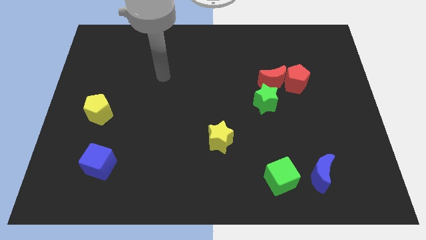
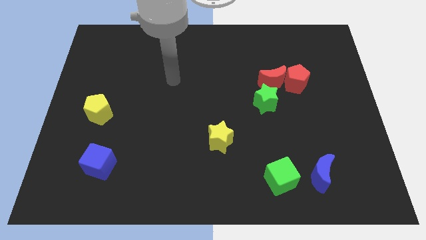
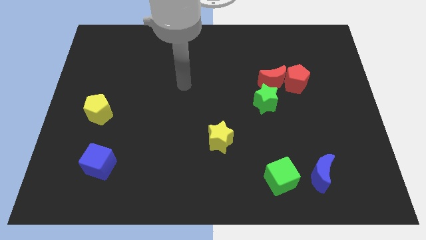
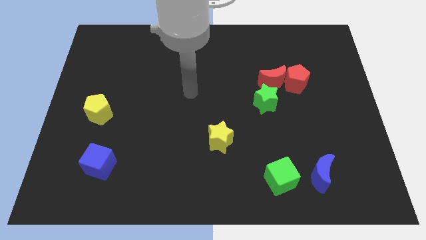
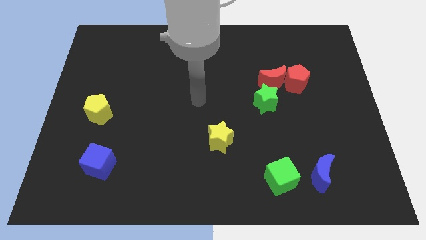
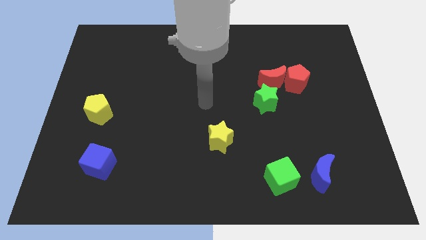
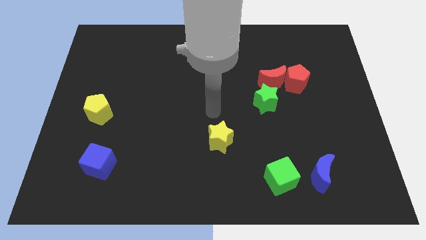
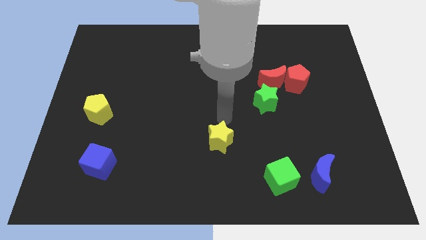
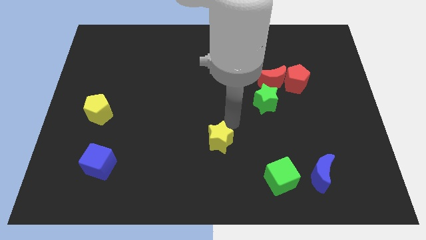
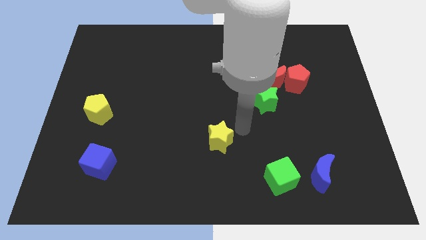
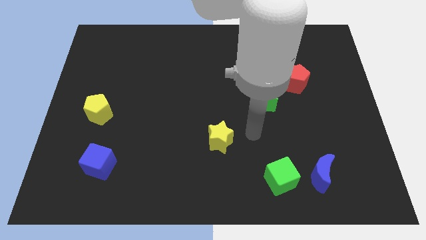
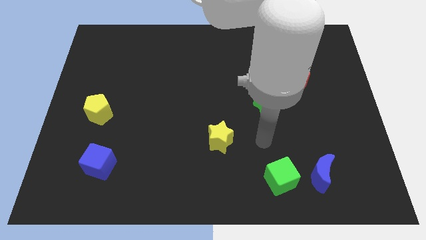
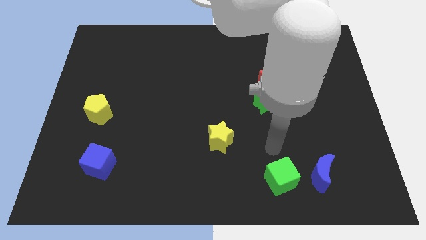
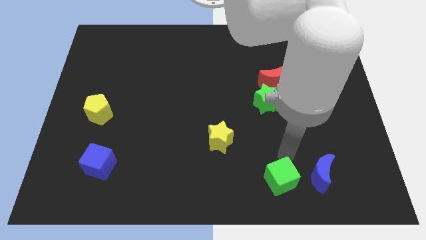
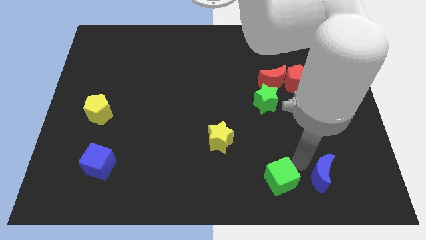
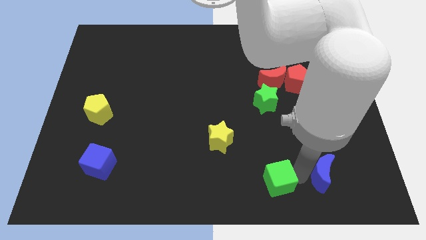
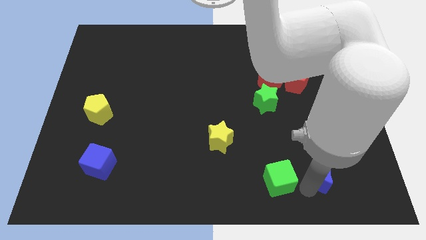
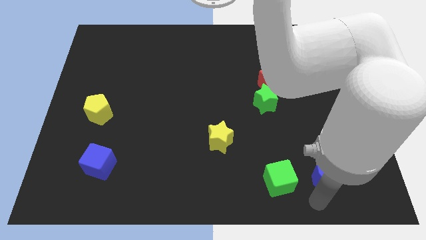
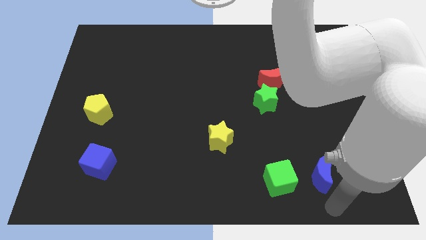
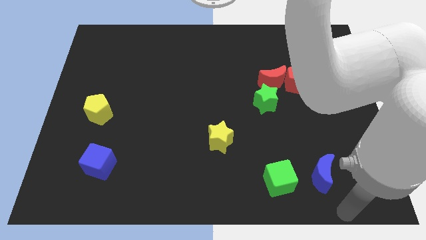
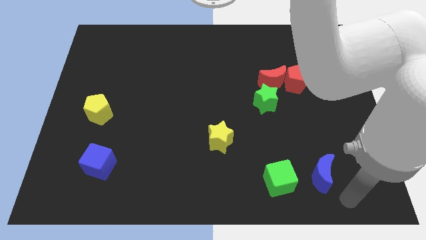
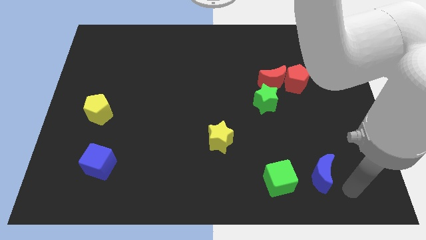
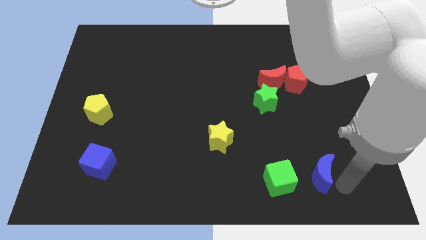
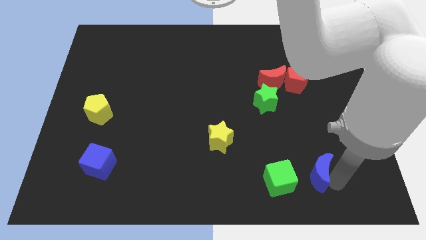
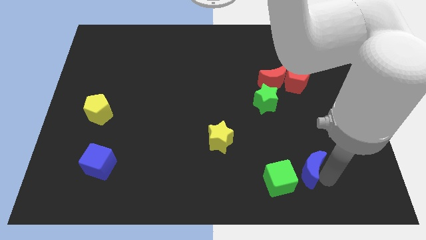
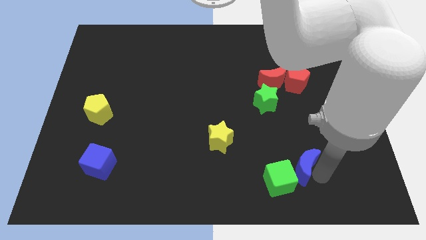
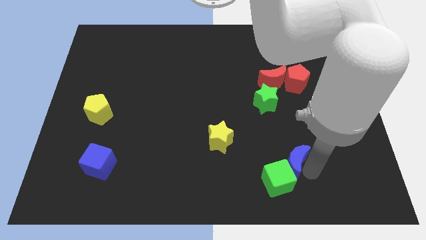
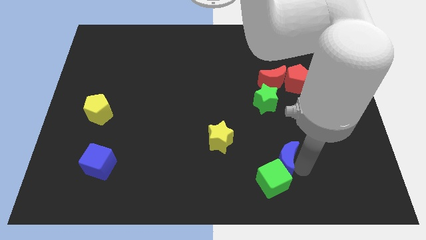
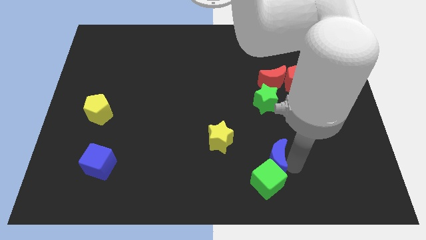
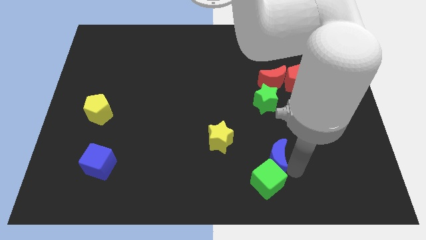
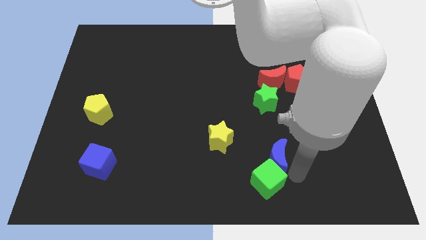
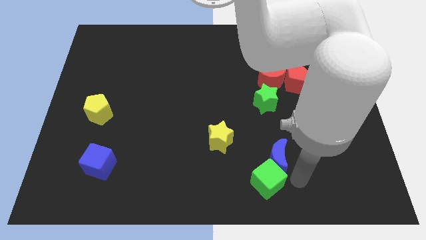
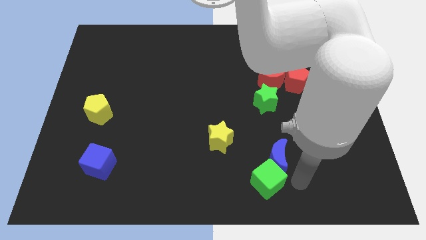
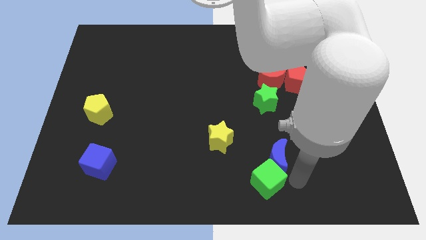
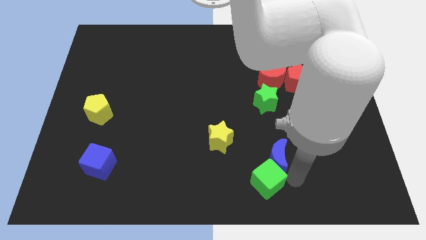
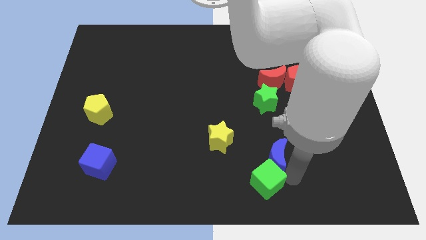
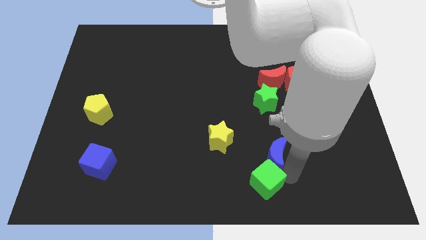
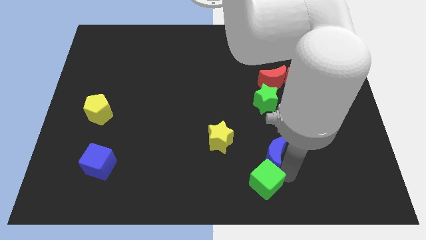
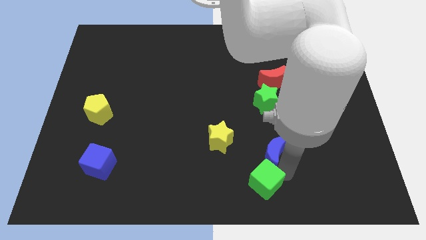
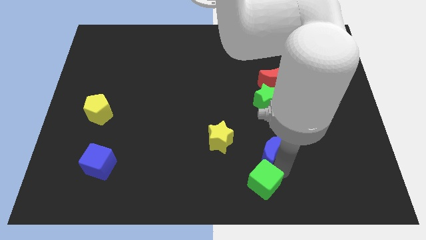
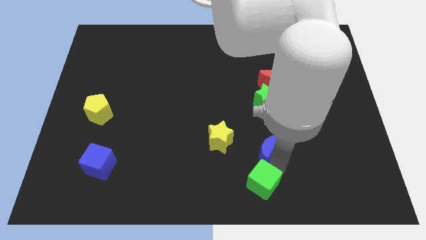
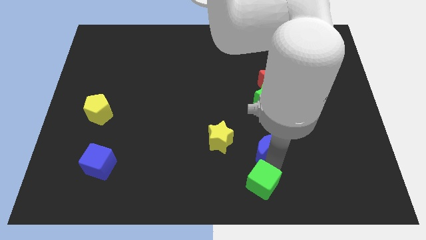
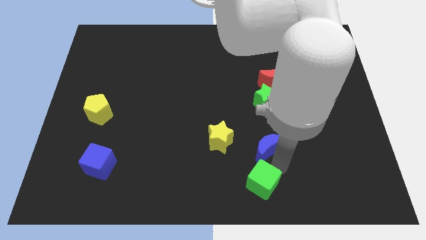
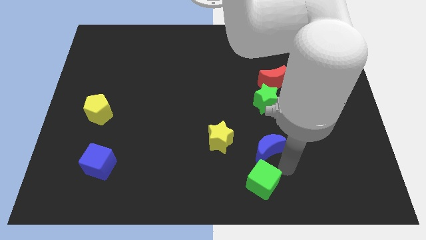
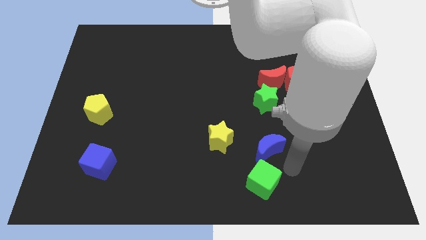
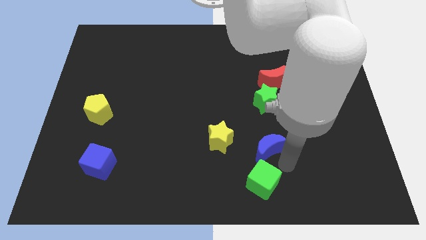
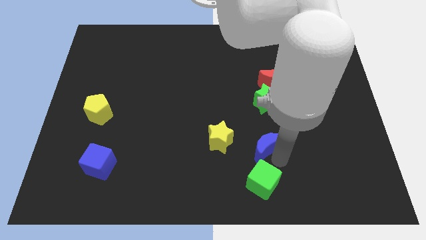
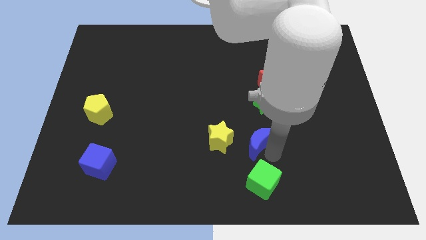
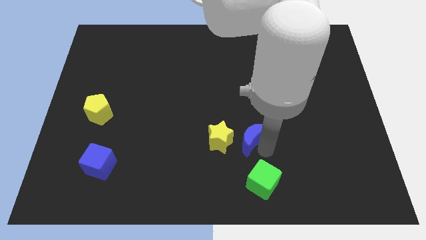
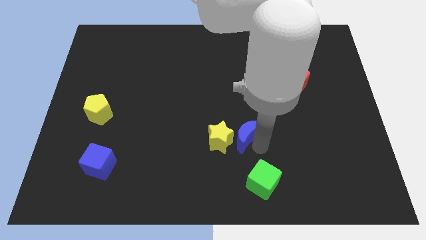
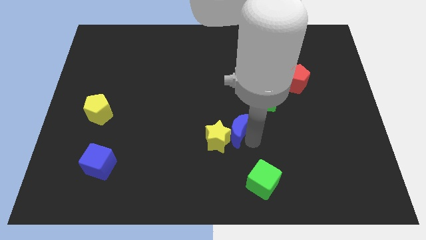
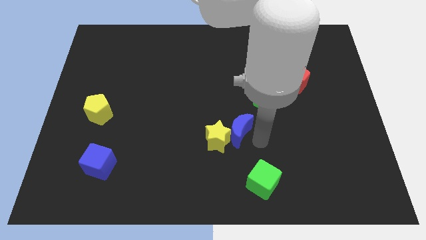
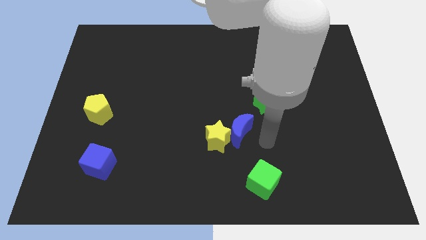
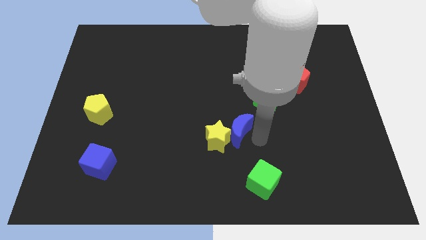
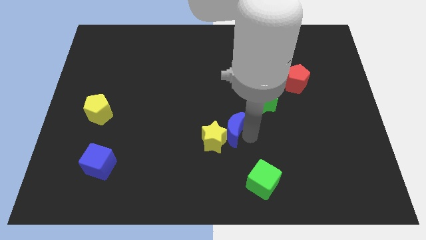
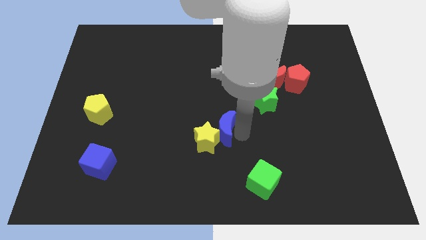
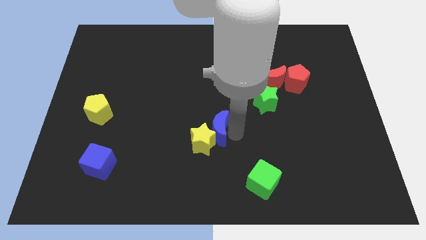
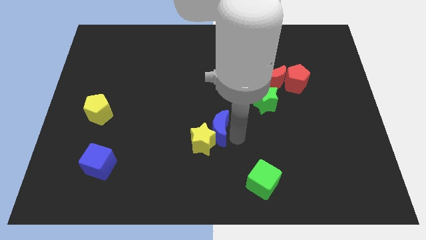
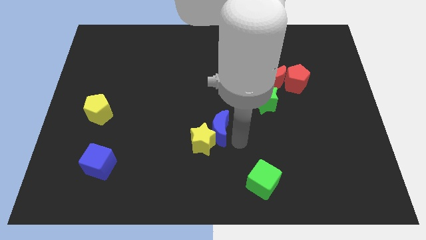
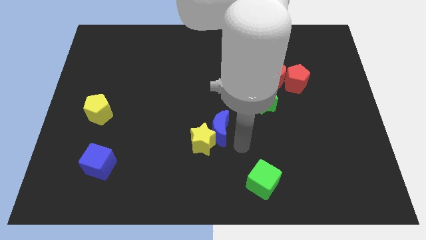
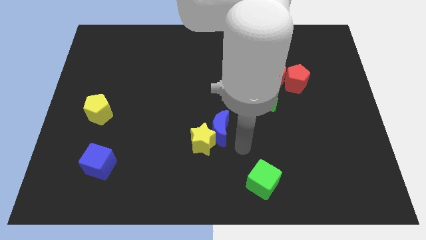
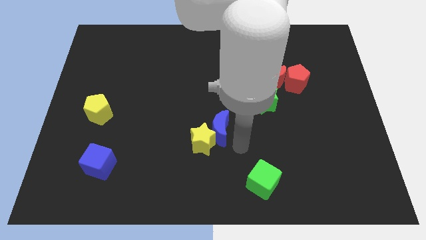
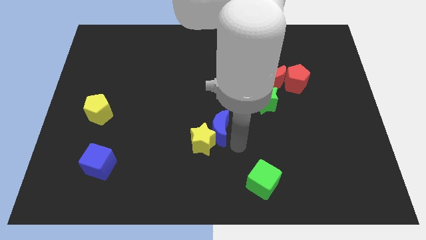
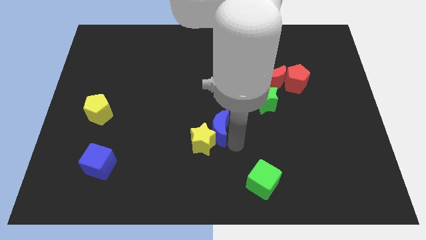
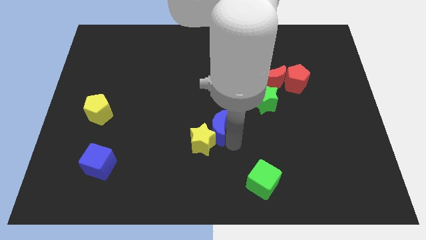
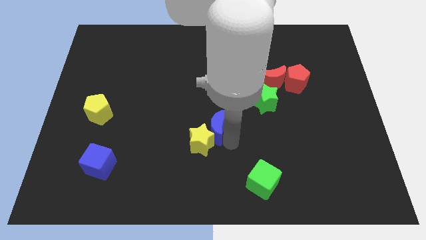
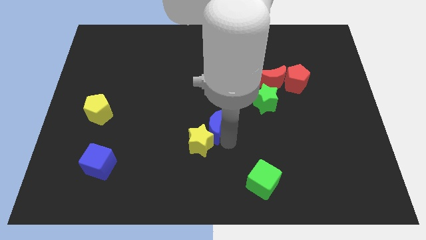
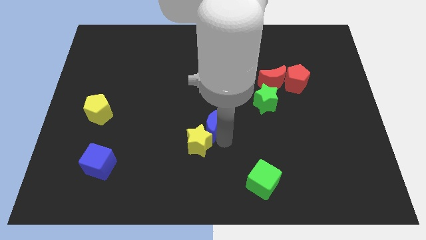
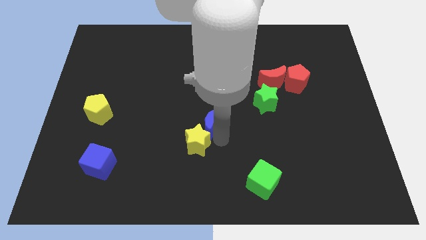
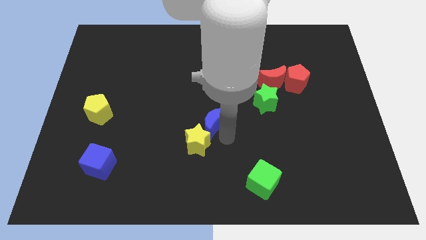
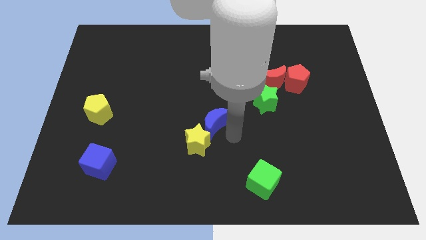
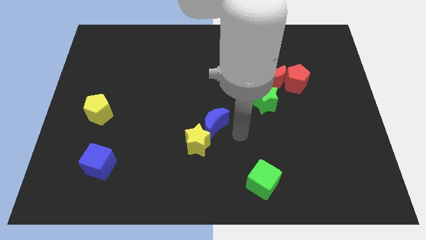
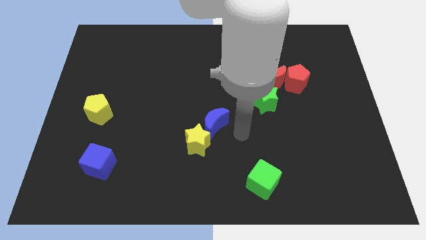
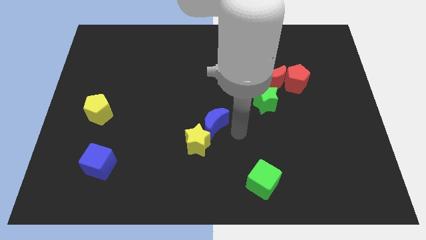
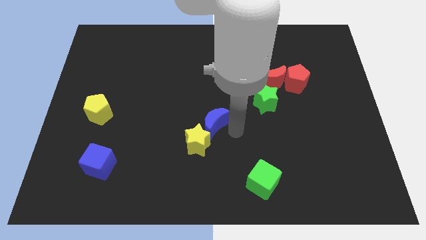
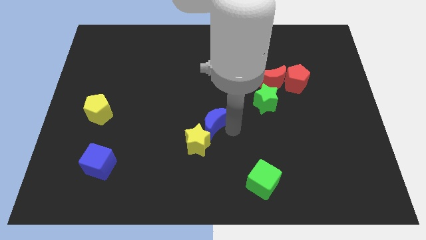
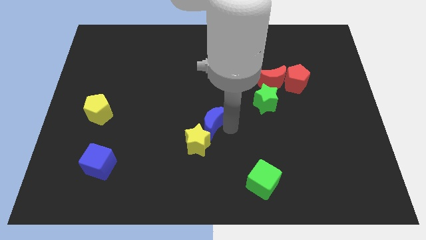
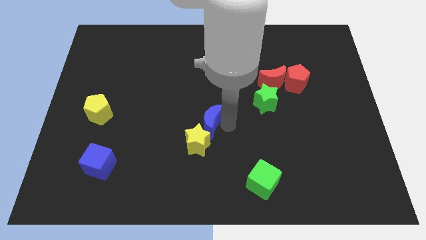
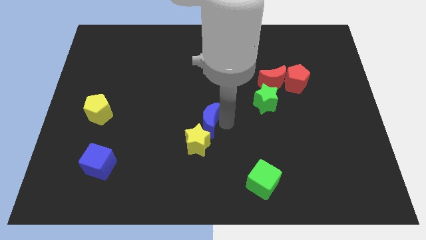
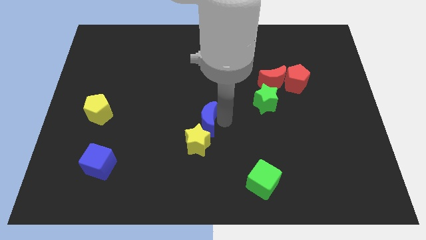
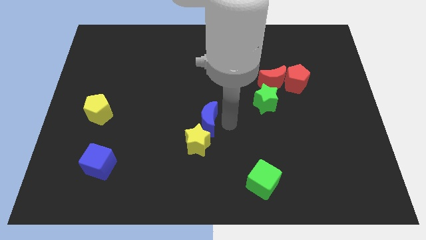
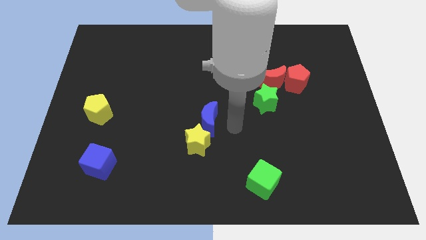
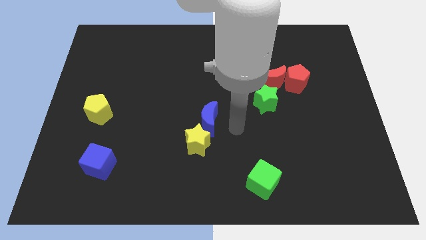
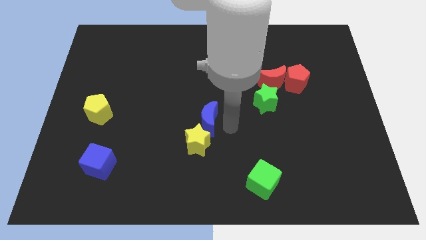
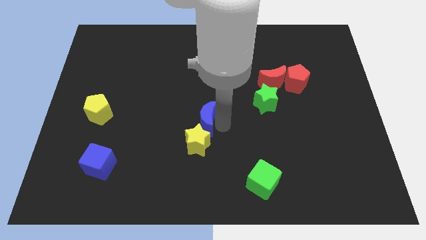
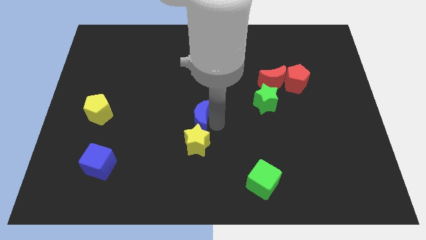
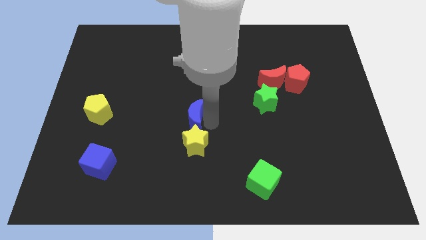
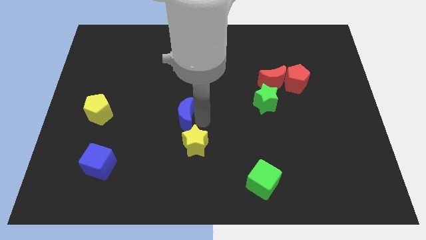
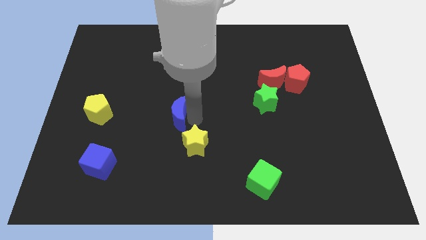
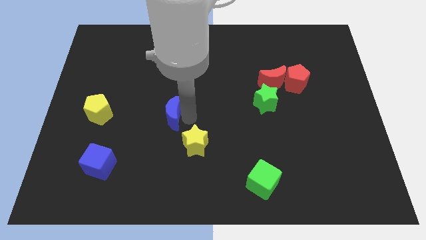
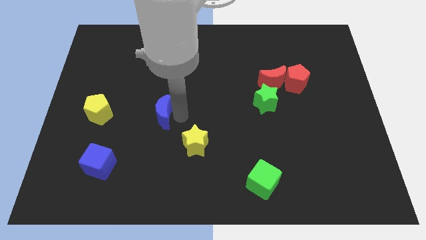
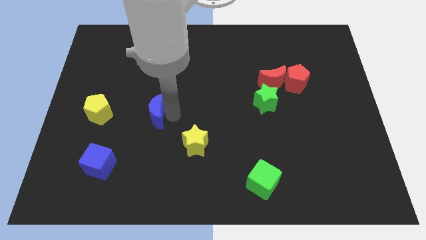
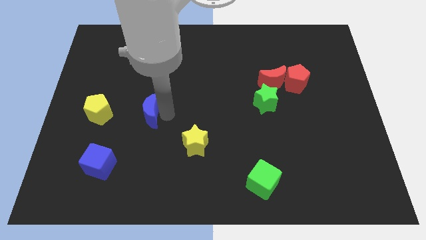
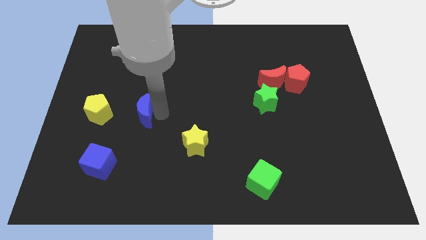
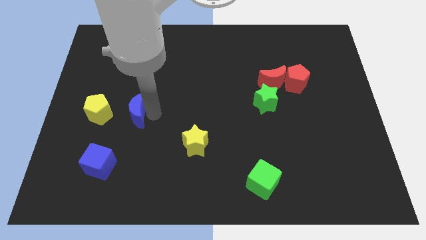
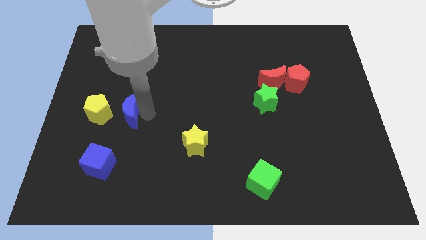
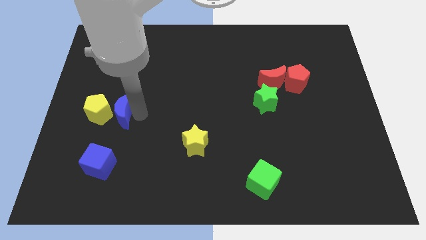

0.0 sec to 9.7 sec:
move the blue moon close to the yellow pentagon
